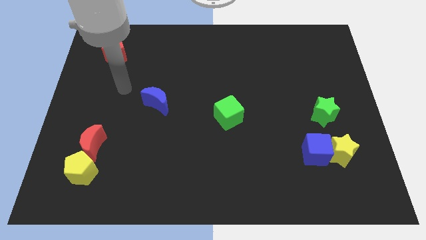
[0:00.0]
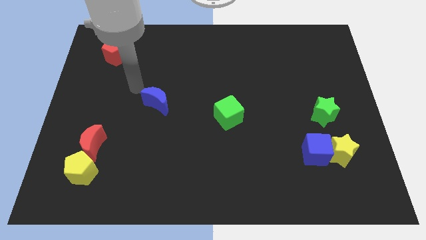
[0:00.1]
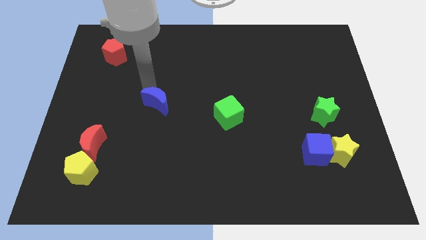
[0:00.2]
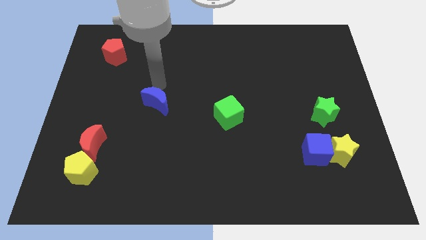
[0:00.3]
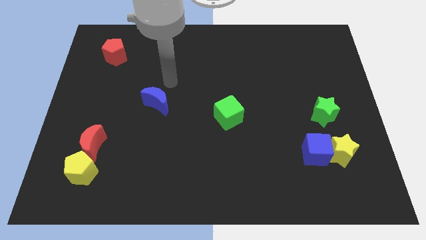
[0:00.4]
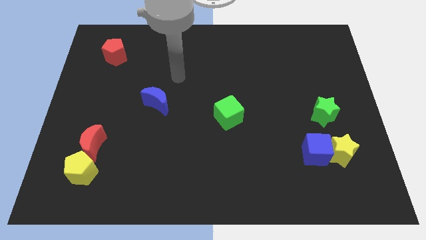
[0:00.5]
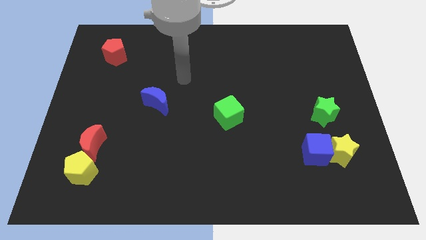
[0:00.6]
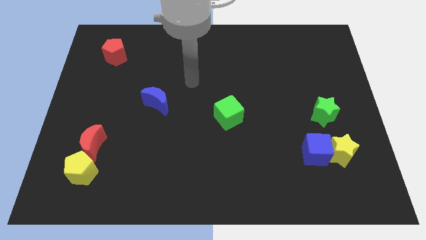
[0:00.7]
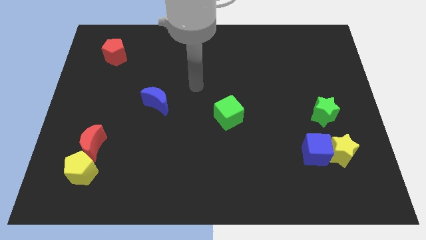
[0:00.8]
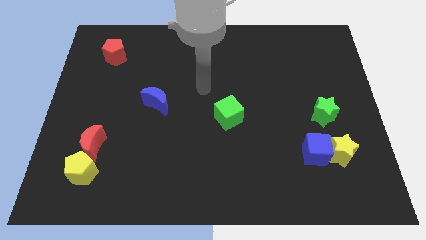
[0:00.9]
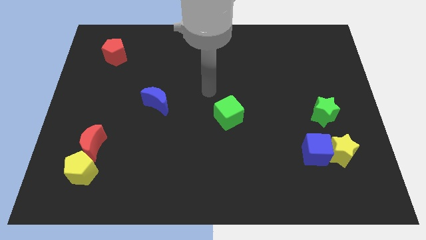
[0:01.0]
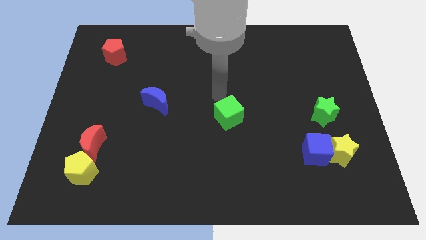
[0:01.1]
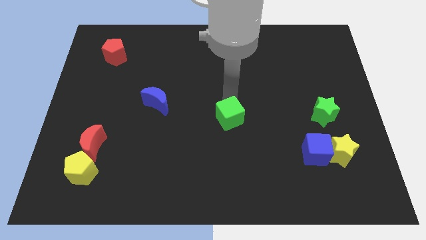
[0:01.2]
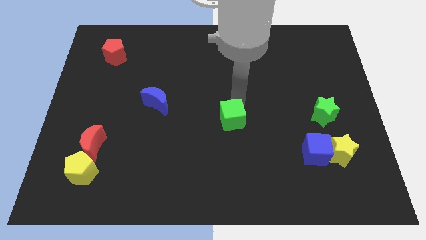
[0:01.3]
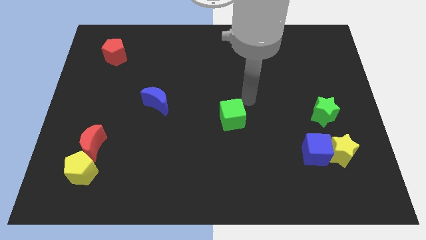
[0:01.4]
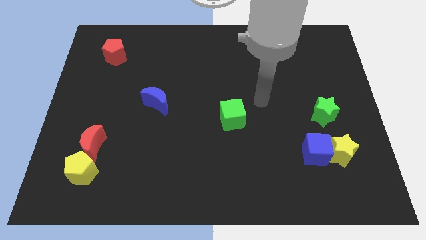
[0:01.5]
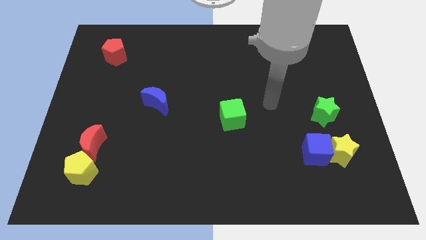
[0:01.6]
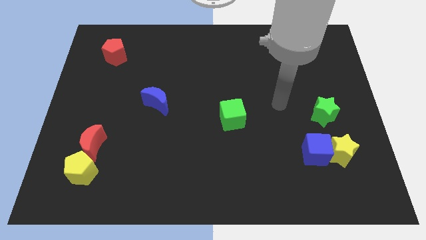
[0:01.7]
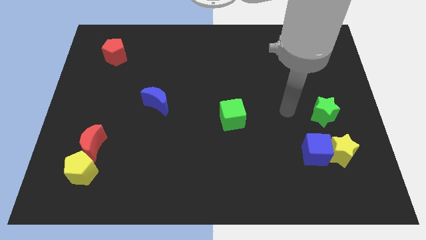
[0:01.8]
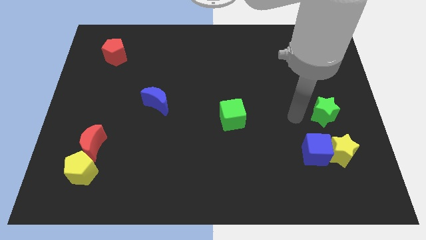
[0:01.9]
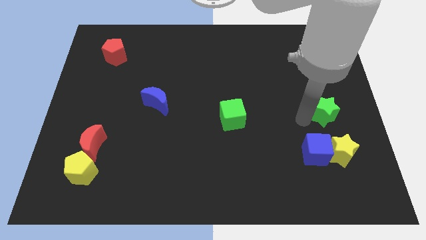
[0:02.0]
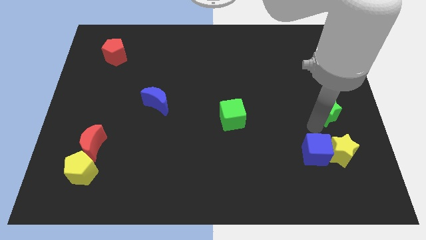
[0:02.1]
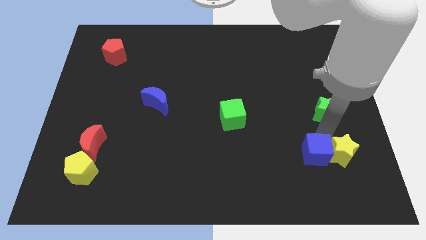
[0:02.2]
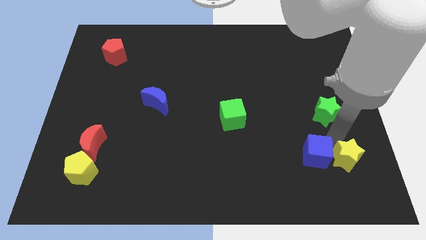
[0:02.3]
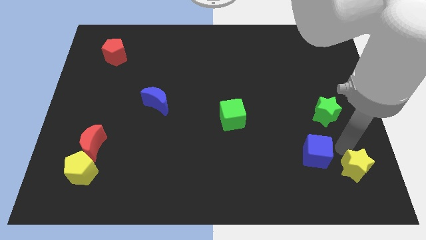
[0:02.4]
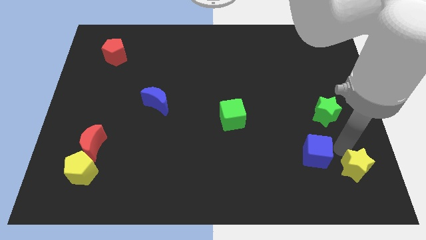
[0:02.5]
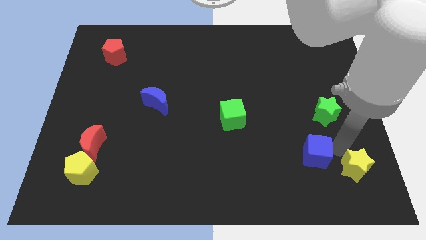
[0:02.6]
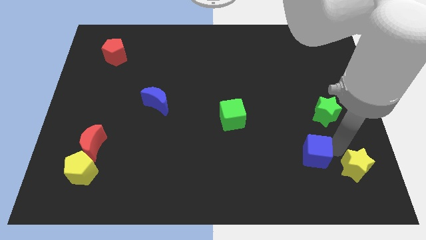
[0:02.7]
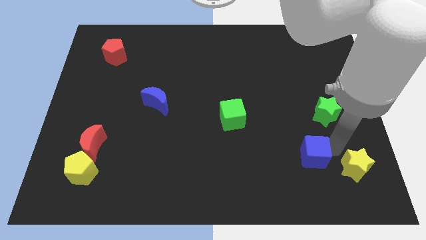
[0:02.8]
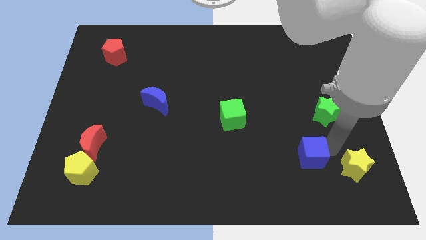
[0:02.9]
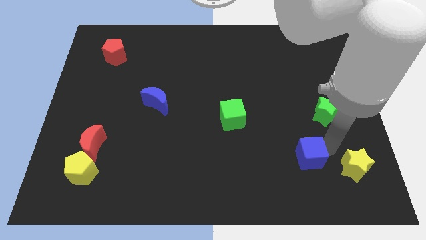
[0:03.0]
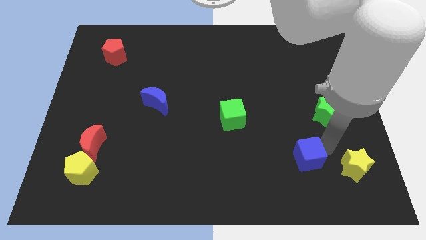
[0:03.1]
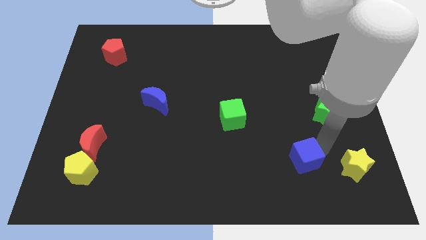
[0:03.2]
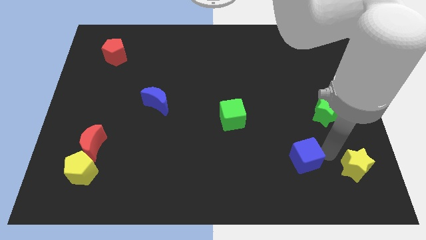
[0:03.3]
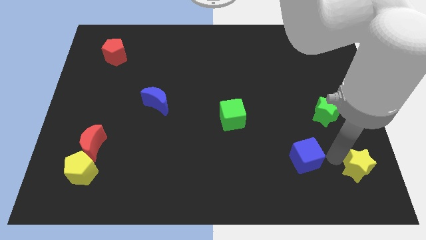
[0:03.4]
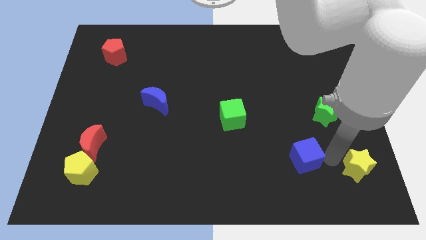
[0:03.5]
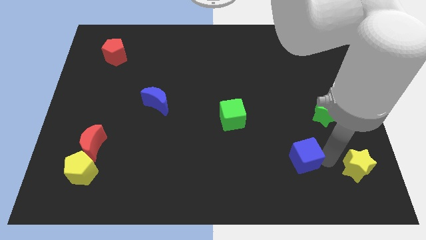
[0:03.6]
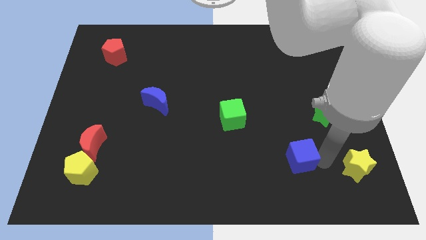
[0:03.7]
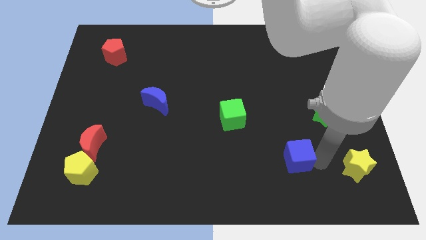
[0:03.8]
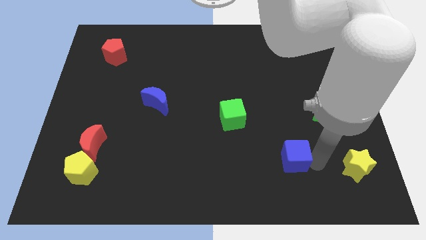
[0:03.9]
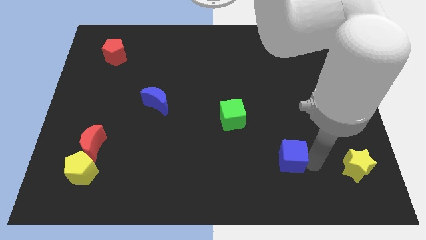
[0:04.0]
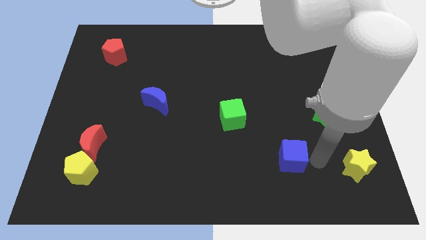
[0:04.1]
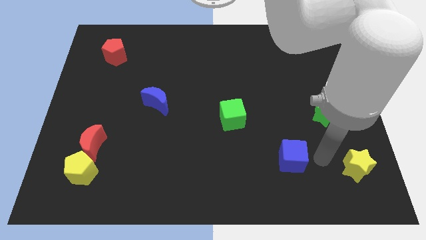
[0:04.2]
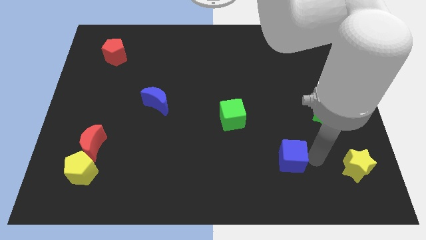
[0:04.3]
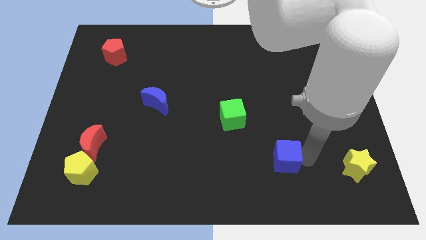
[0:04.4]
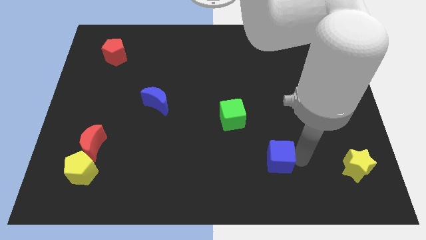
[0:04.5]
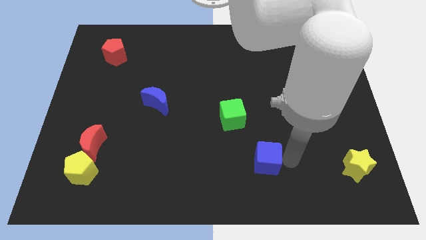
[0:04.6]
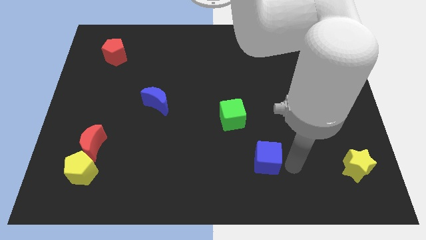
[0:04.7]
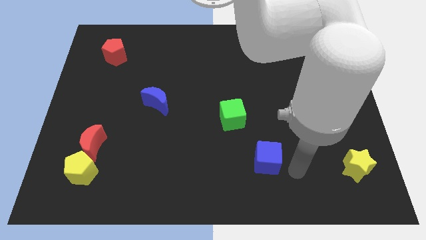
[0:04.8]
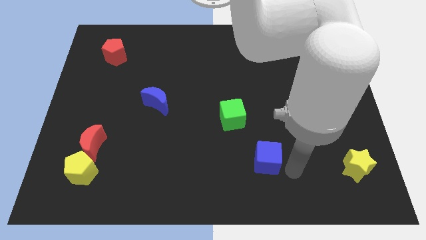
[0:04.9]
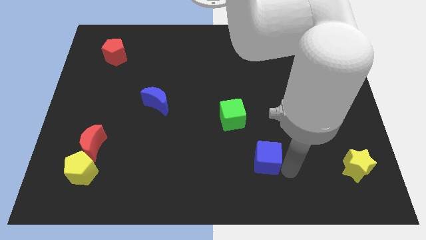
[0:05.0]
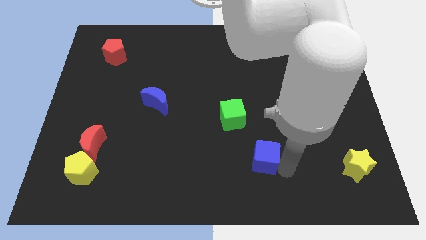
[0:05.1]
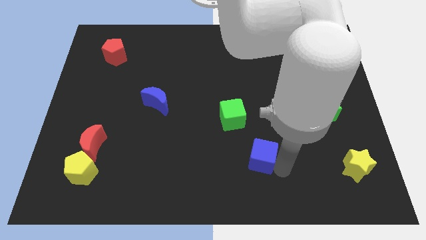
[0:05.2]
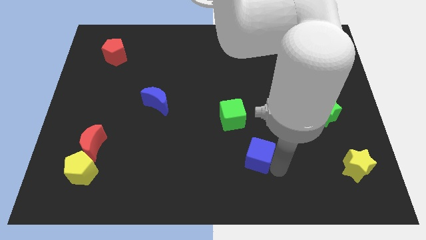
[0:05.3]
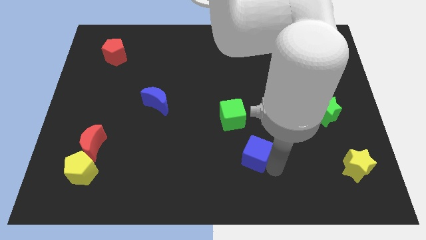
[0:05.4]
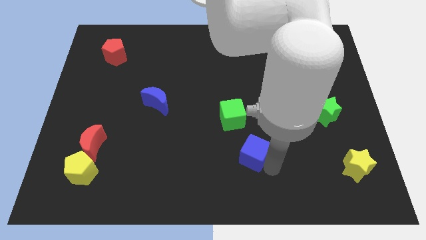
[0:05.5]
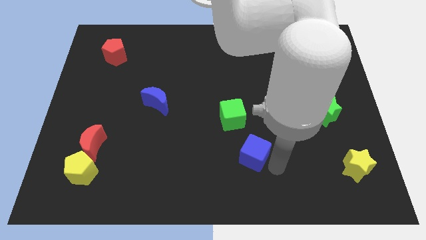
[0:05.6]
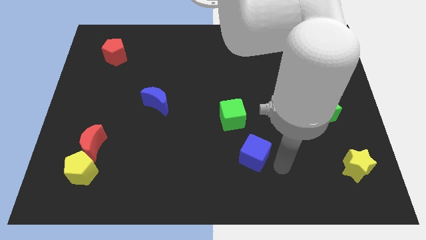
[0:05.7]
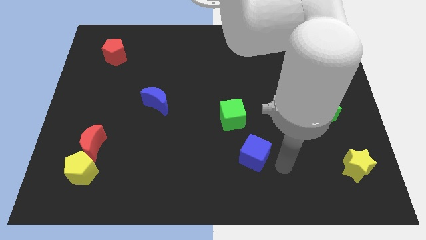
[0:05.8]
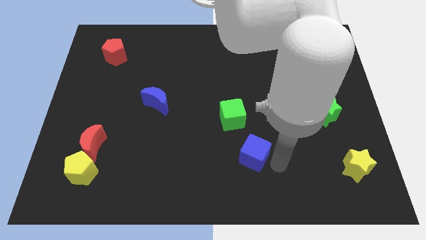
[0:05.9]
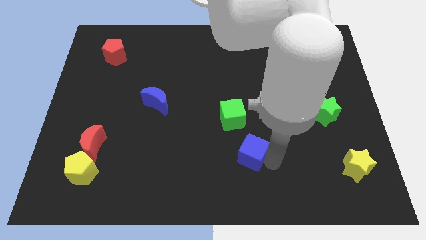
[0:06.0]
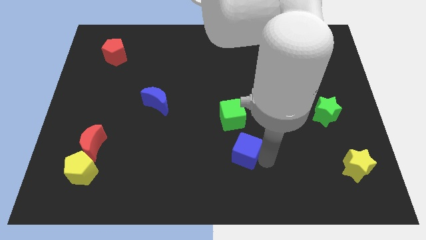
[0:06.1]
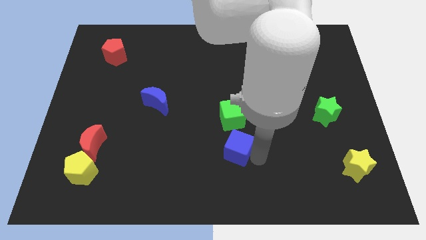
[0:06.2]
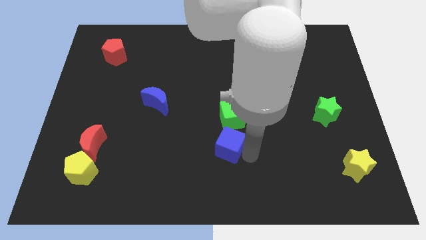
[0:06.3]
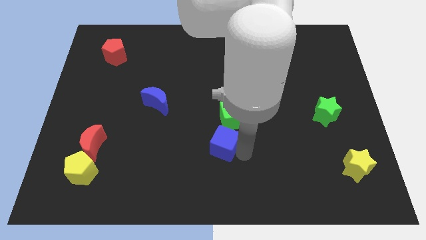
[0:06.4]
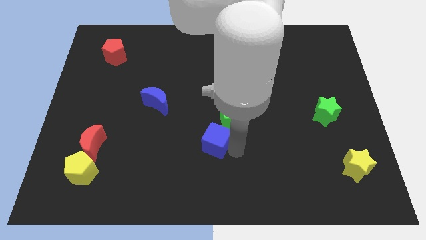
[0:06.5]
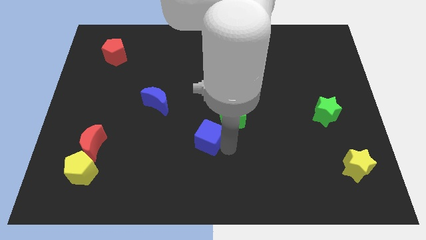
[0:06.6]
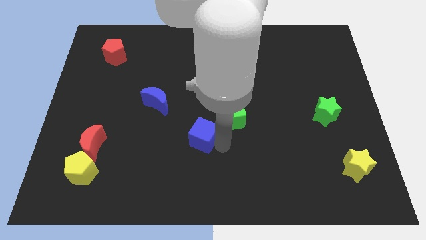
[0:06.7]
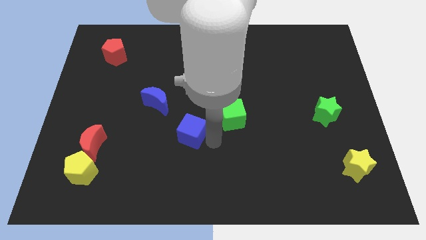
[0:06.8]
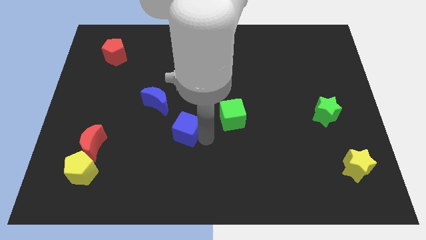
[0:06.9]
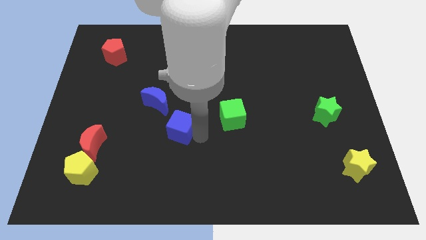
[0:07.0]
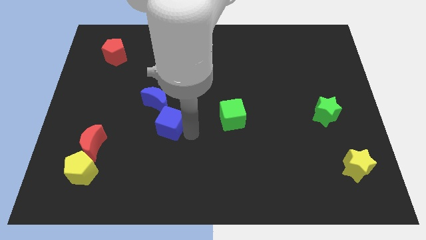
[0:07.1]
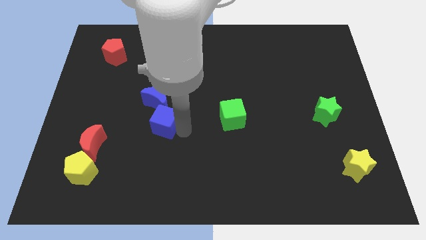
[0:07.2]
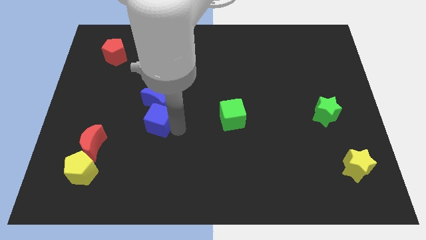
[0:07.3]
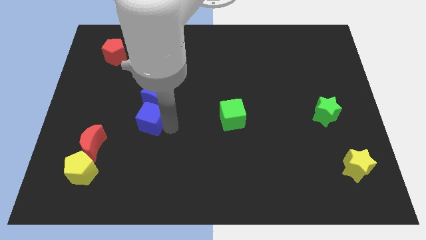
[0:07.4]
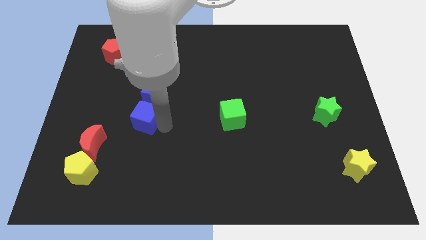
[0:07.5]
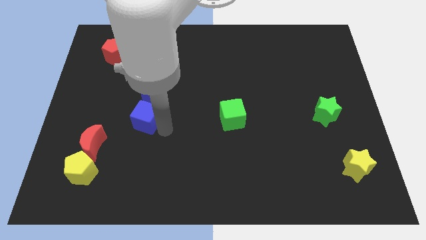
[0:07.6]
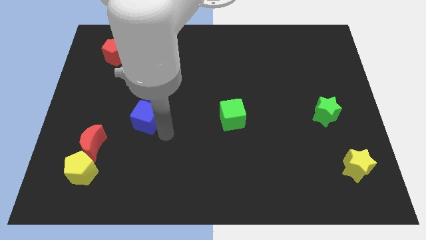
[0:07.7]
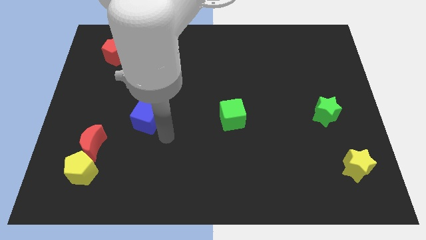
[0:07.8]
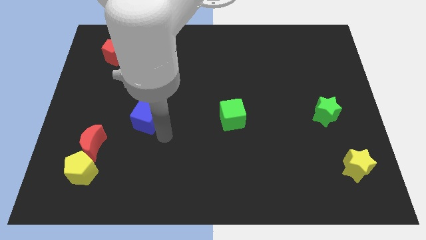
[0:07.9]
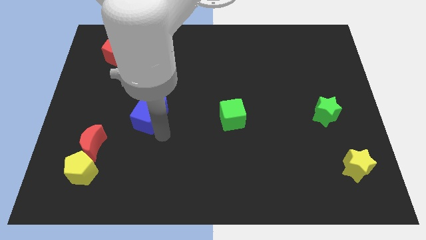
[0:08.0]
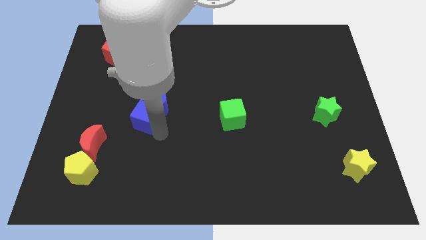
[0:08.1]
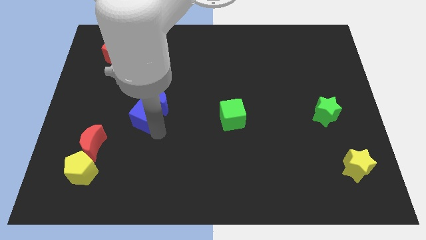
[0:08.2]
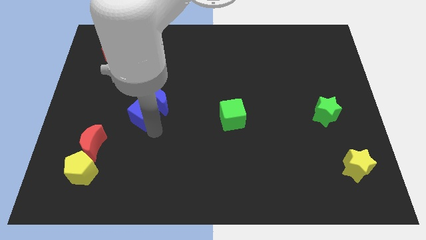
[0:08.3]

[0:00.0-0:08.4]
slide the blue cube to the left side of the blue moon

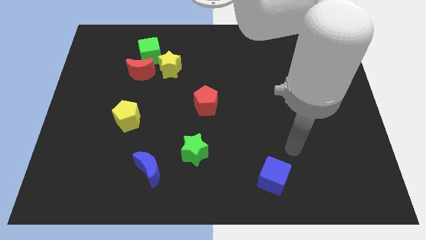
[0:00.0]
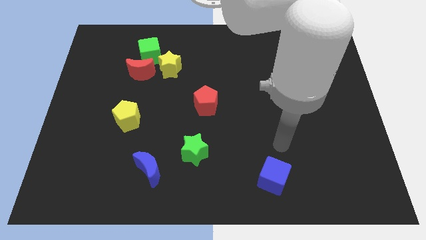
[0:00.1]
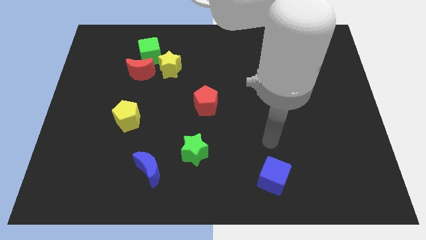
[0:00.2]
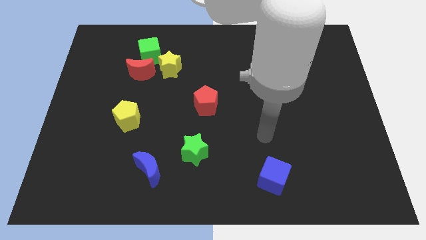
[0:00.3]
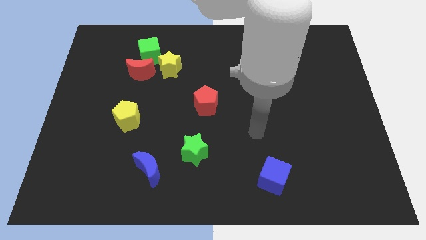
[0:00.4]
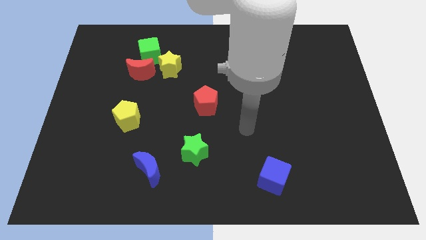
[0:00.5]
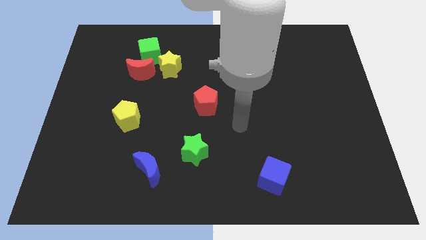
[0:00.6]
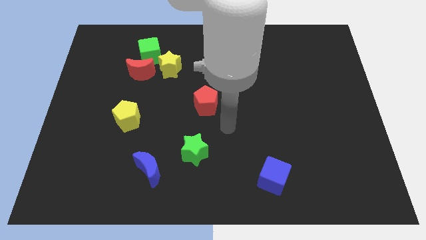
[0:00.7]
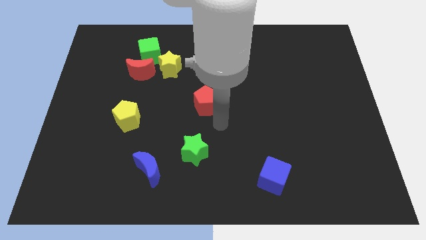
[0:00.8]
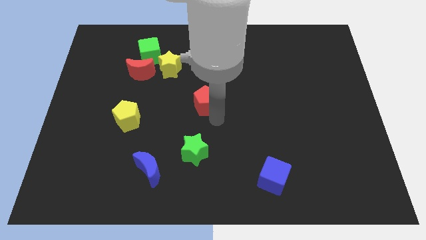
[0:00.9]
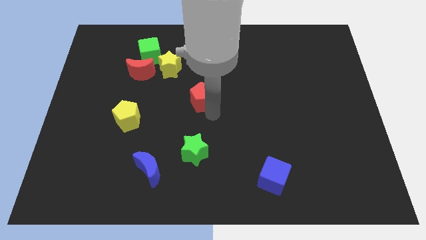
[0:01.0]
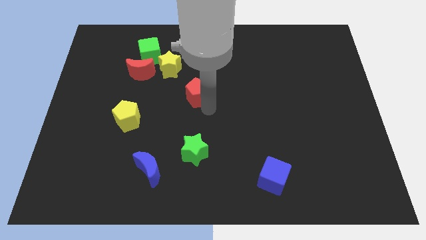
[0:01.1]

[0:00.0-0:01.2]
move the red pentagon diagonally down and to the right of the yellow star
